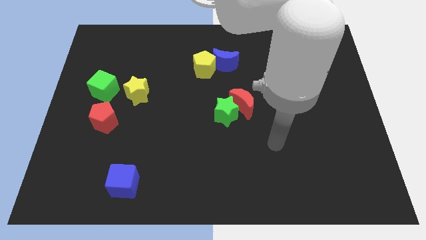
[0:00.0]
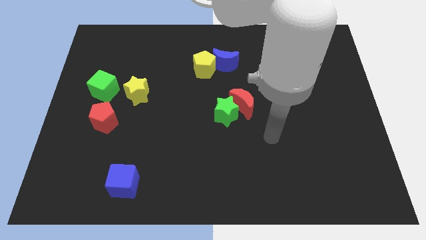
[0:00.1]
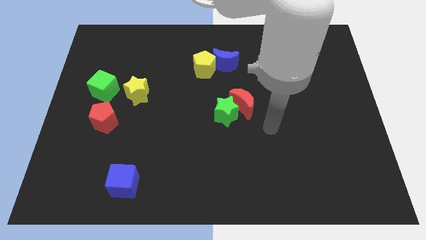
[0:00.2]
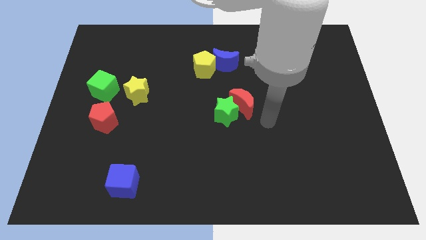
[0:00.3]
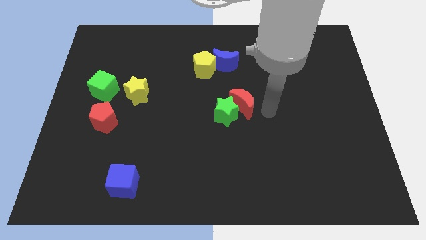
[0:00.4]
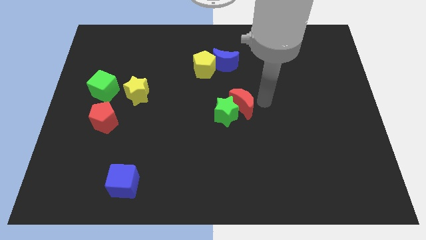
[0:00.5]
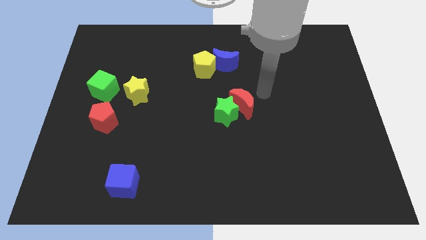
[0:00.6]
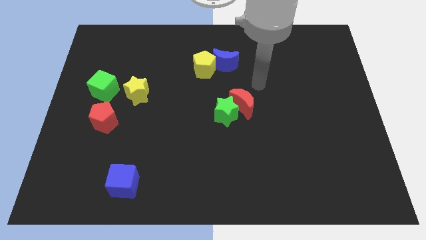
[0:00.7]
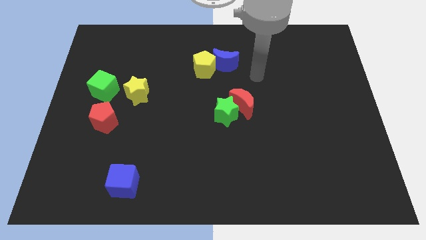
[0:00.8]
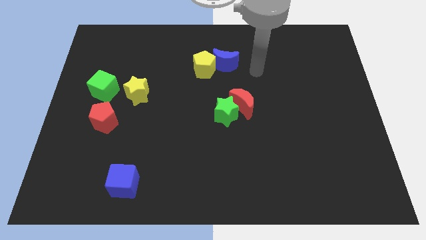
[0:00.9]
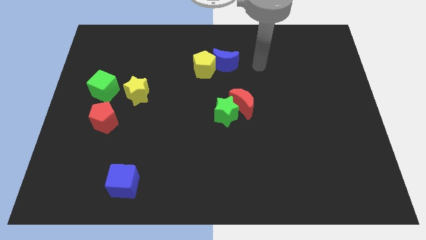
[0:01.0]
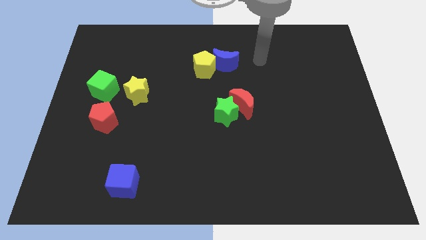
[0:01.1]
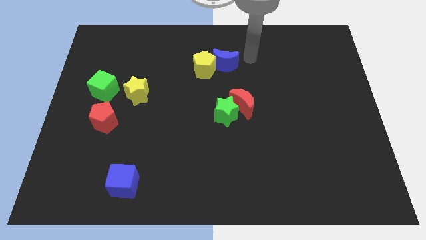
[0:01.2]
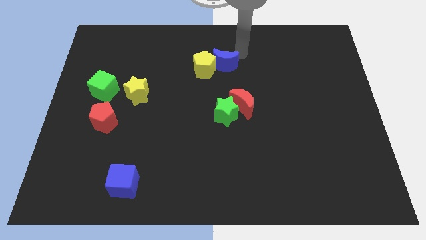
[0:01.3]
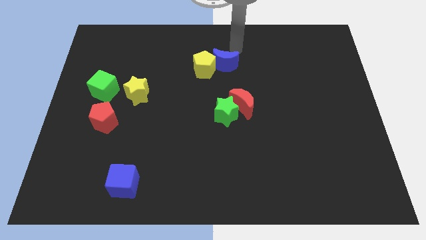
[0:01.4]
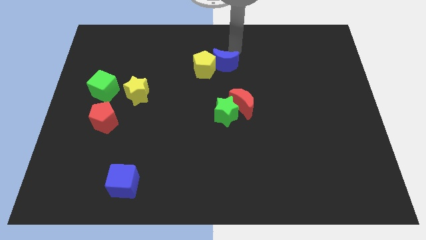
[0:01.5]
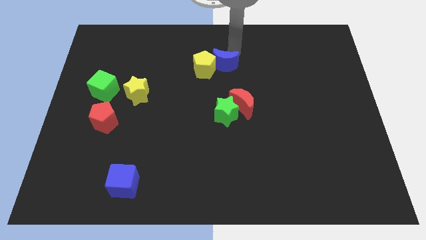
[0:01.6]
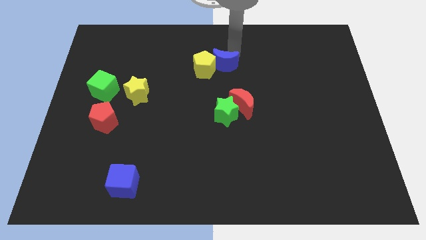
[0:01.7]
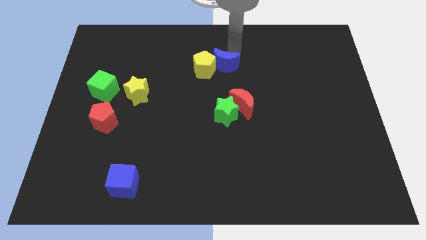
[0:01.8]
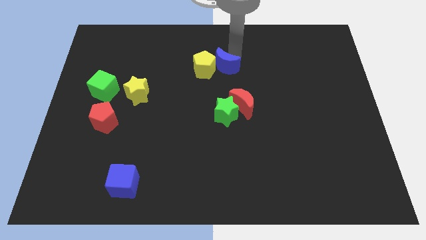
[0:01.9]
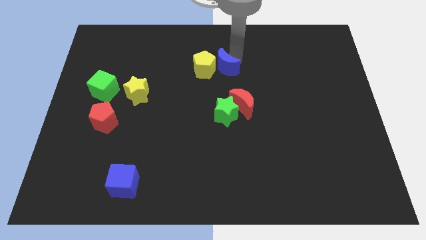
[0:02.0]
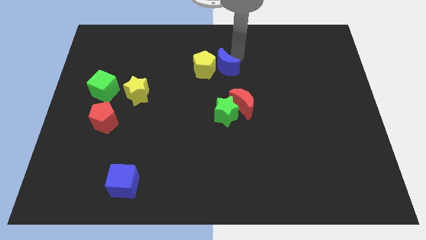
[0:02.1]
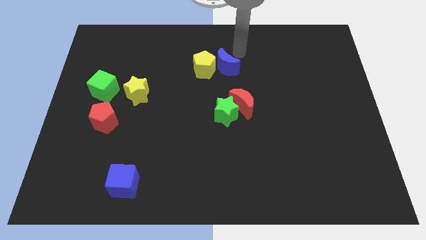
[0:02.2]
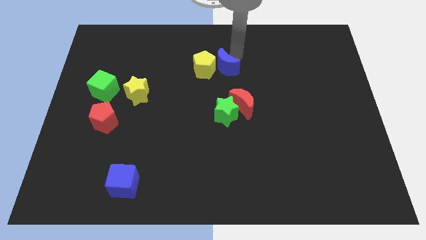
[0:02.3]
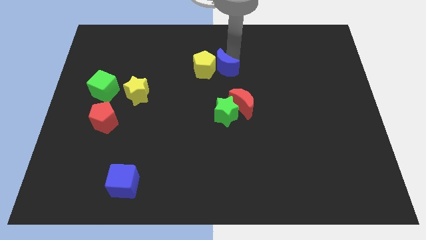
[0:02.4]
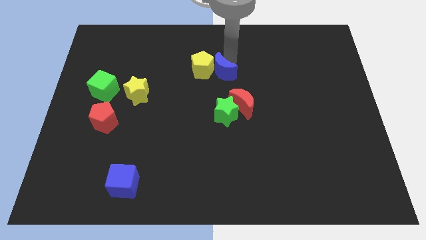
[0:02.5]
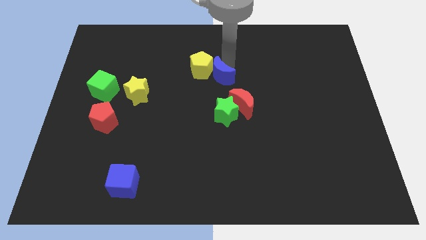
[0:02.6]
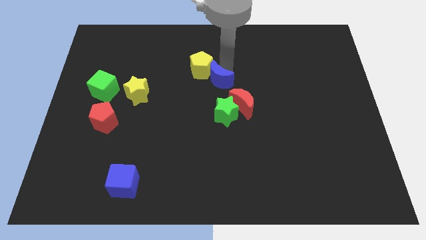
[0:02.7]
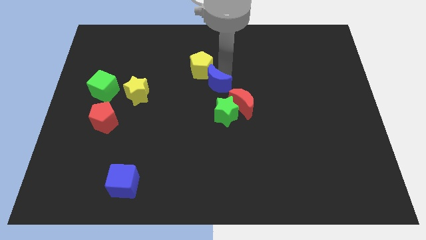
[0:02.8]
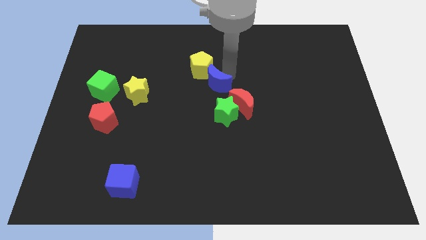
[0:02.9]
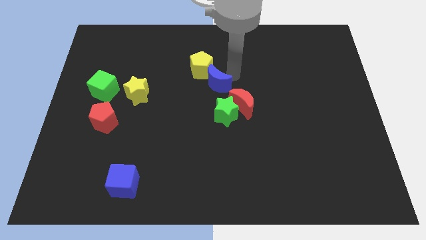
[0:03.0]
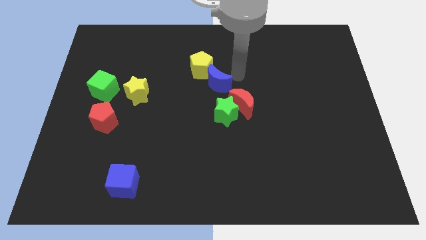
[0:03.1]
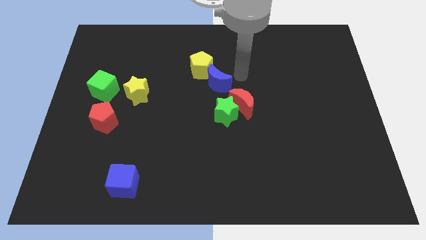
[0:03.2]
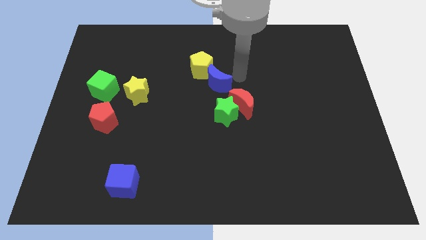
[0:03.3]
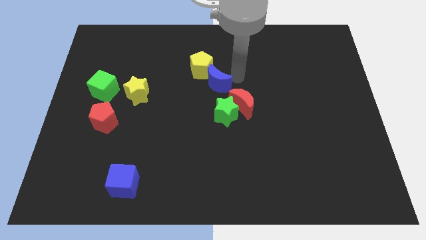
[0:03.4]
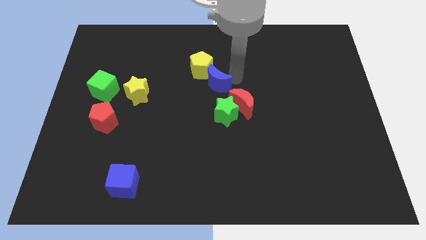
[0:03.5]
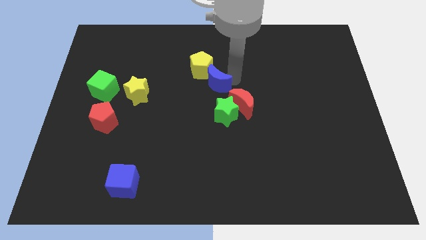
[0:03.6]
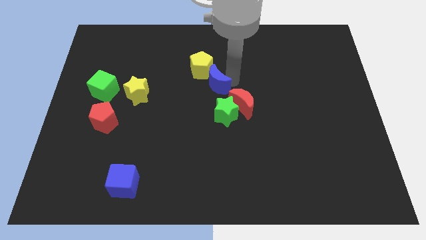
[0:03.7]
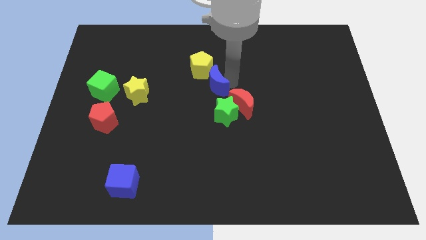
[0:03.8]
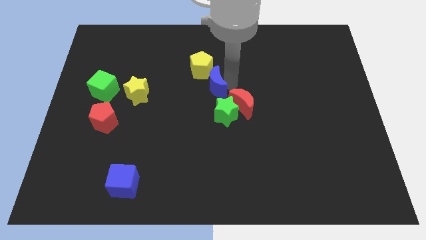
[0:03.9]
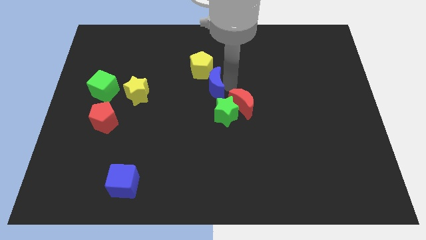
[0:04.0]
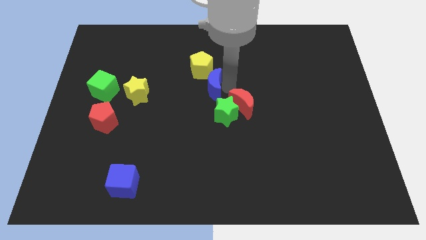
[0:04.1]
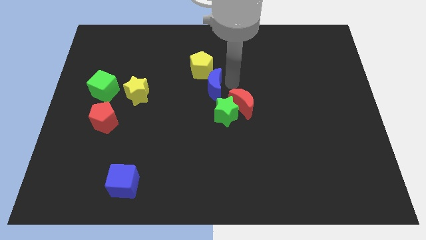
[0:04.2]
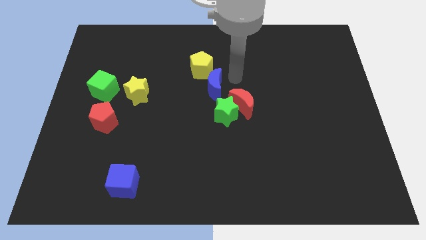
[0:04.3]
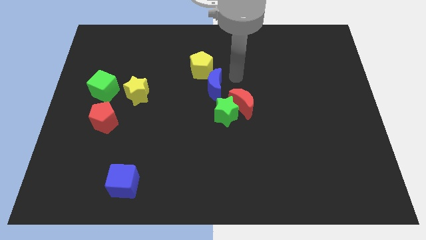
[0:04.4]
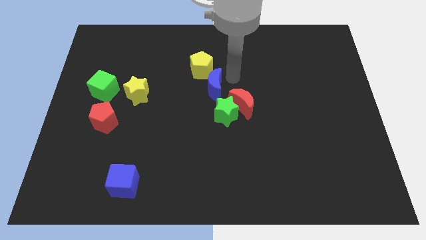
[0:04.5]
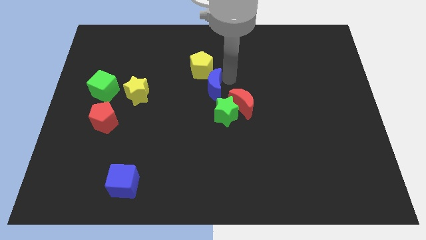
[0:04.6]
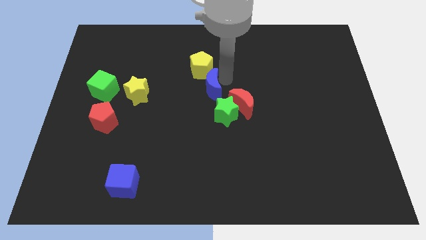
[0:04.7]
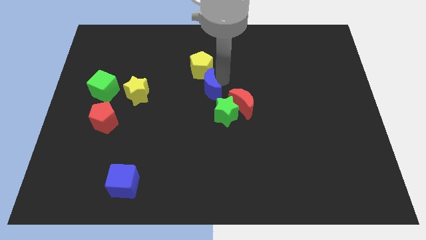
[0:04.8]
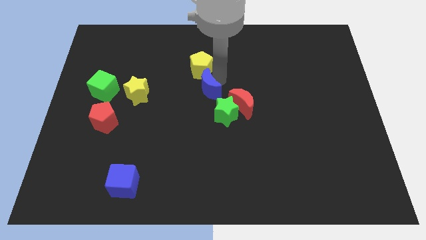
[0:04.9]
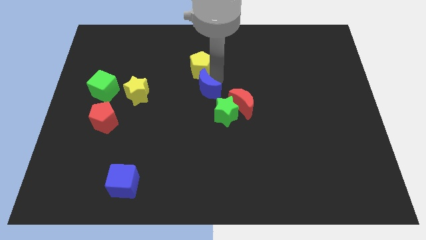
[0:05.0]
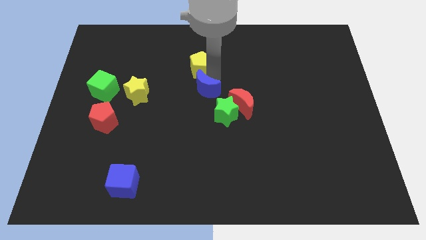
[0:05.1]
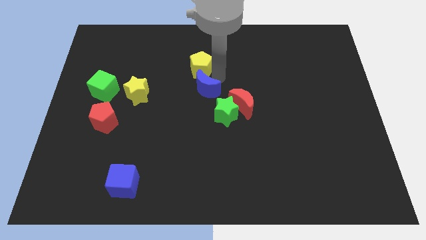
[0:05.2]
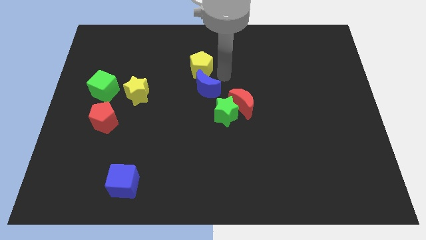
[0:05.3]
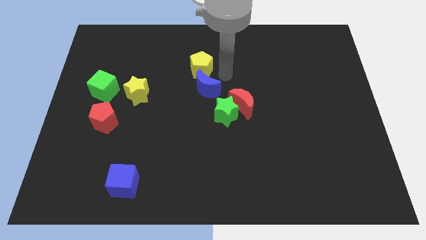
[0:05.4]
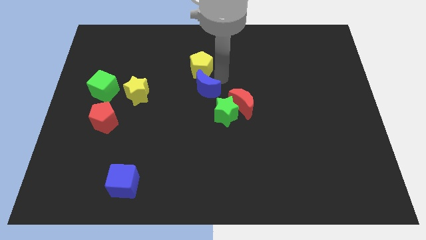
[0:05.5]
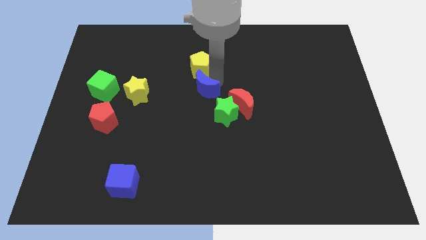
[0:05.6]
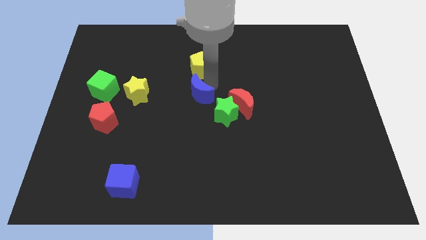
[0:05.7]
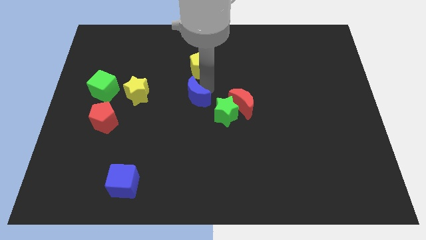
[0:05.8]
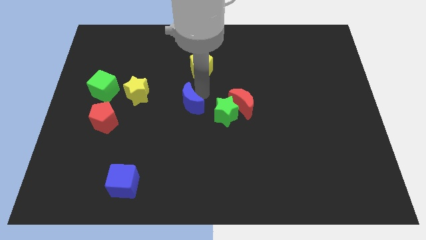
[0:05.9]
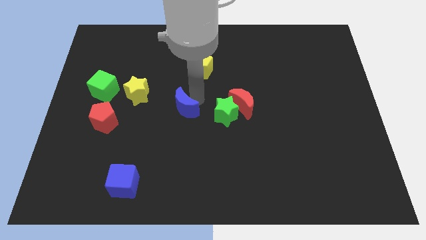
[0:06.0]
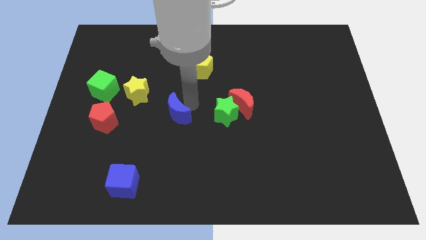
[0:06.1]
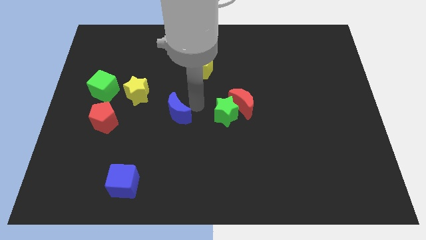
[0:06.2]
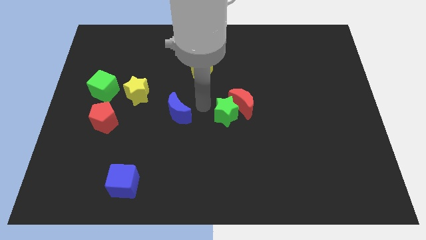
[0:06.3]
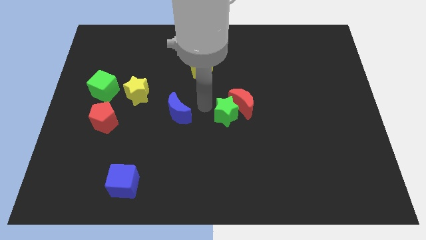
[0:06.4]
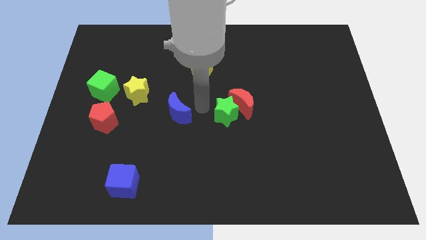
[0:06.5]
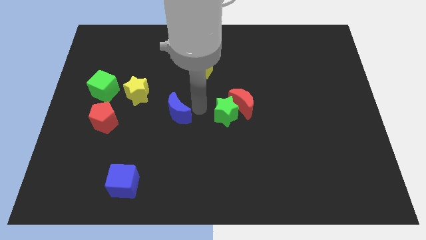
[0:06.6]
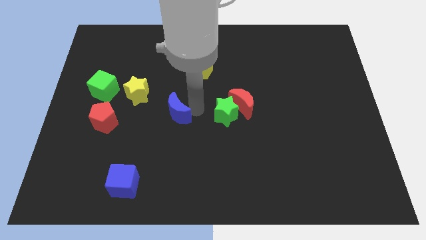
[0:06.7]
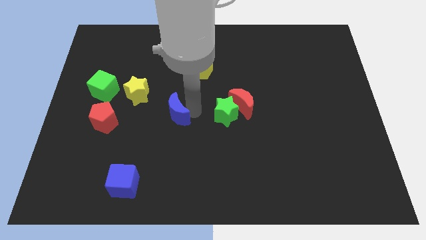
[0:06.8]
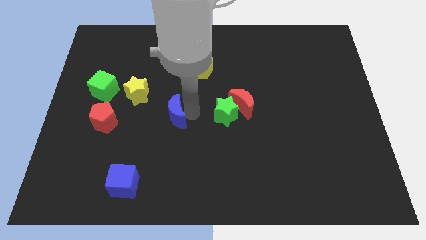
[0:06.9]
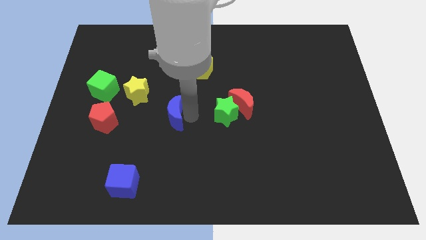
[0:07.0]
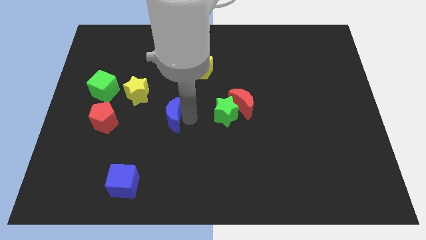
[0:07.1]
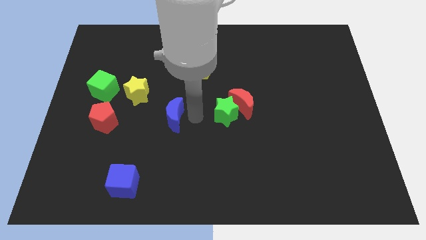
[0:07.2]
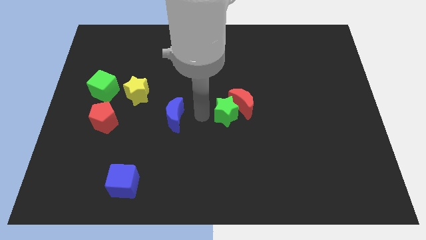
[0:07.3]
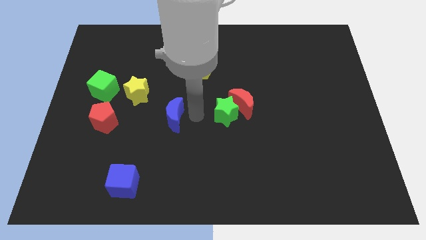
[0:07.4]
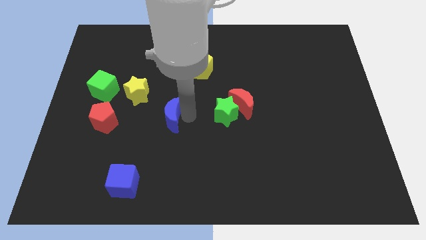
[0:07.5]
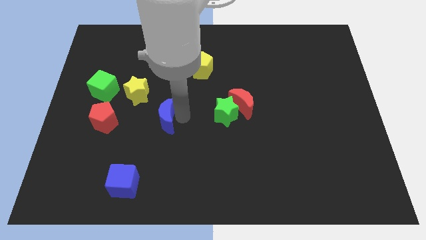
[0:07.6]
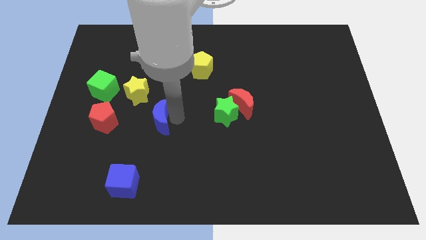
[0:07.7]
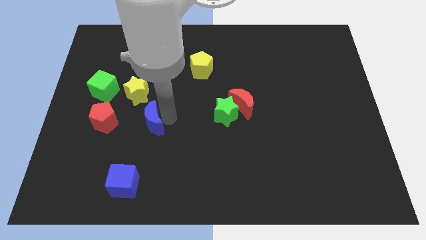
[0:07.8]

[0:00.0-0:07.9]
push the blue moon to the bottom of the yellow star

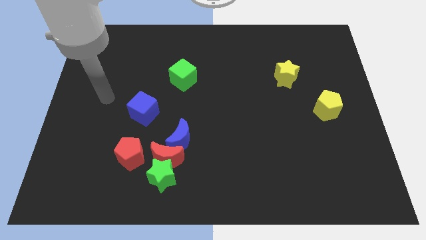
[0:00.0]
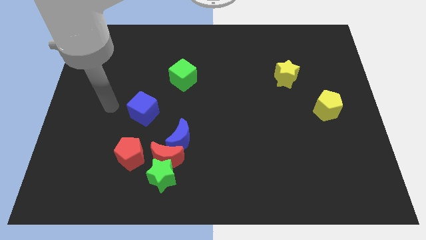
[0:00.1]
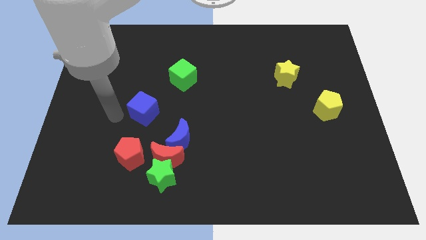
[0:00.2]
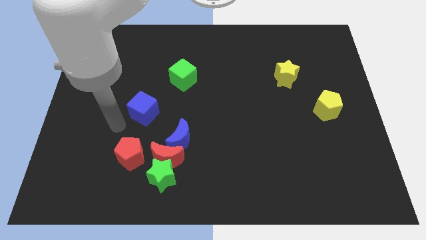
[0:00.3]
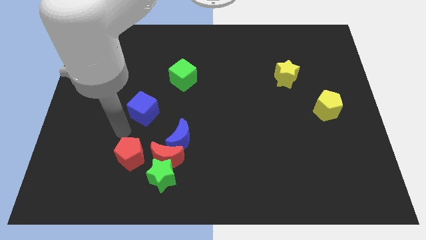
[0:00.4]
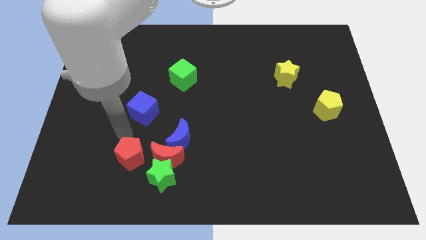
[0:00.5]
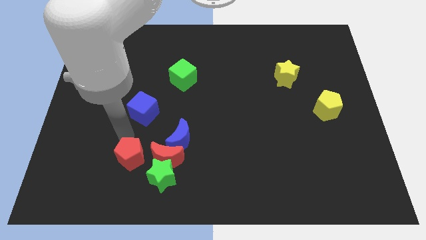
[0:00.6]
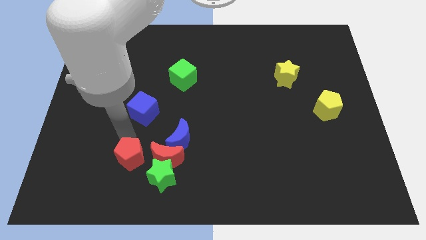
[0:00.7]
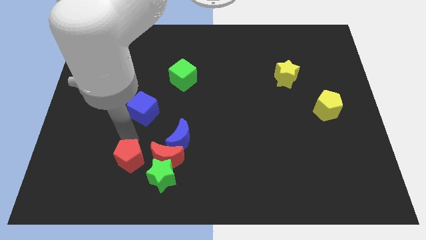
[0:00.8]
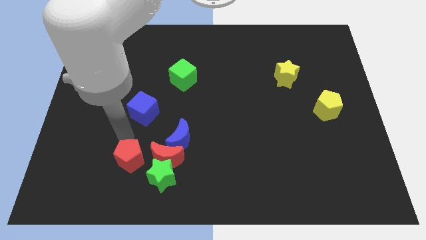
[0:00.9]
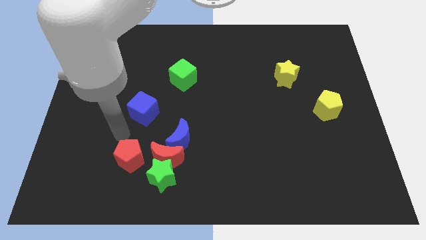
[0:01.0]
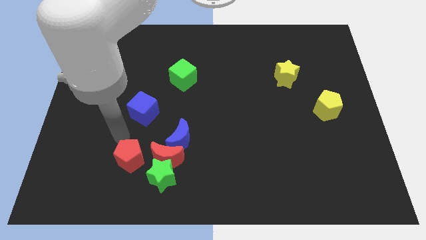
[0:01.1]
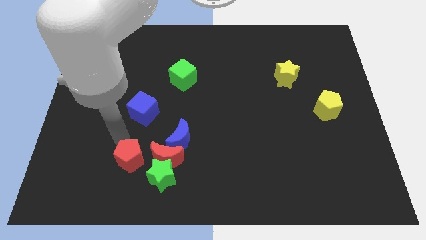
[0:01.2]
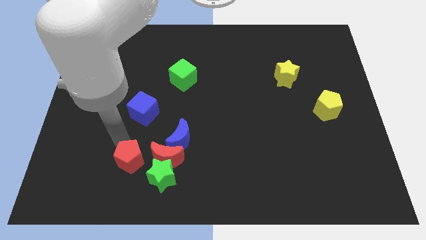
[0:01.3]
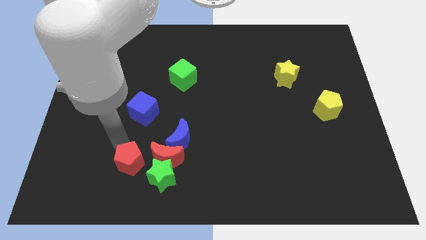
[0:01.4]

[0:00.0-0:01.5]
push the red pentagon diagonally down and to the left of the red moon
